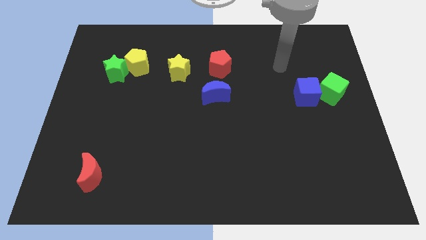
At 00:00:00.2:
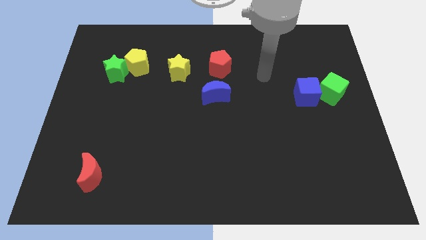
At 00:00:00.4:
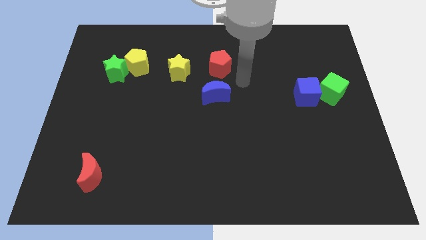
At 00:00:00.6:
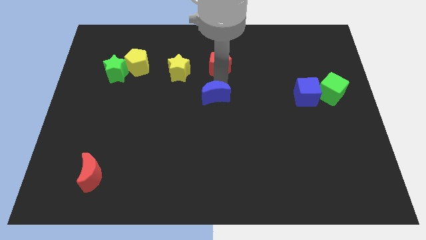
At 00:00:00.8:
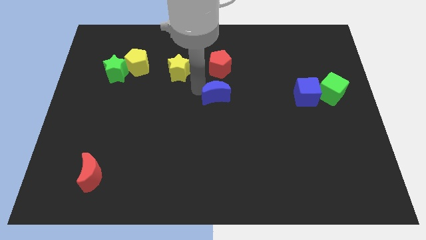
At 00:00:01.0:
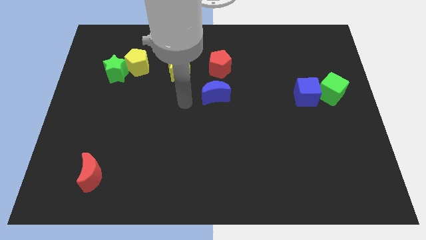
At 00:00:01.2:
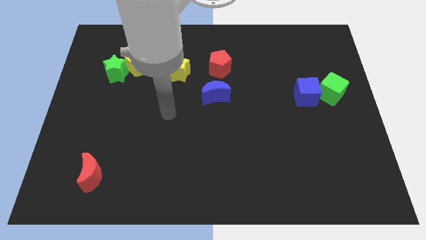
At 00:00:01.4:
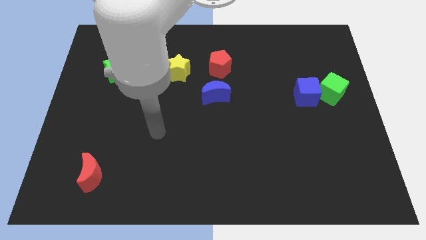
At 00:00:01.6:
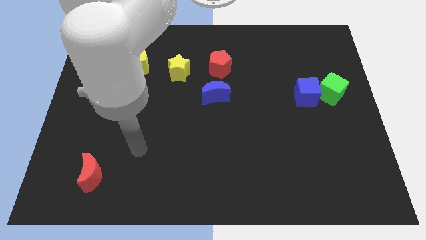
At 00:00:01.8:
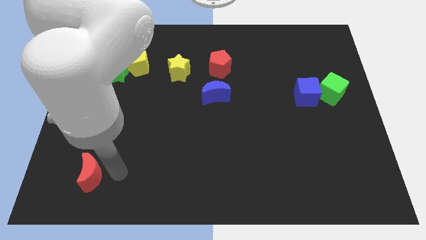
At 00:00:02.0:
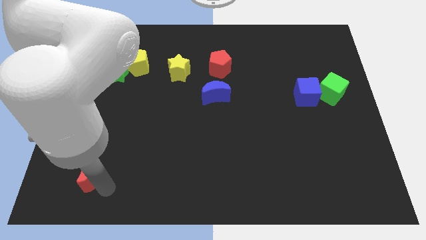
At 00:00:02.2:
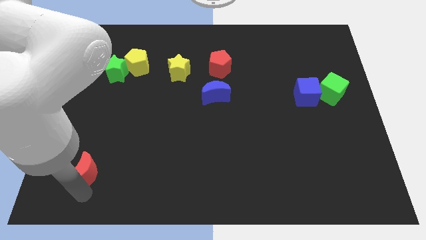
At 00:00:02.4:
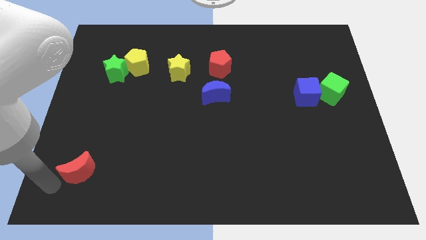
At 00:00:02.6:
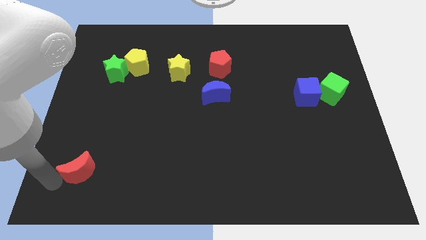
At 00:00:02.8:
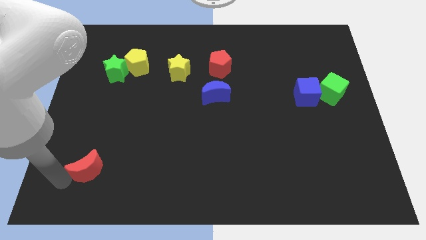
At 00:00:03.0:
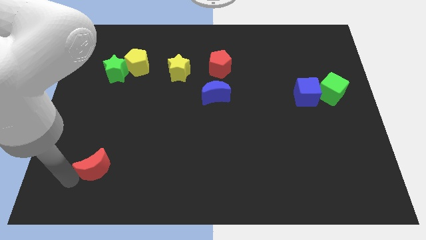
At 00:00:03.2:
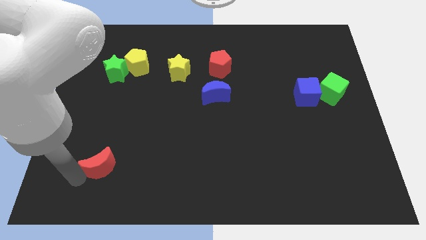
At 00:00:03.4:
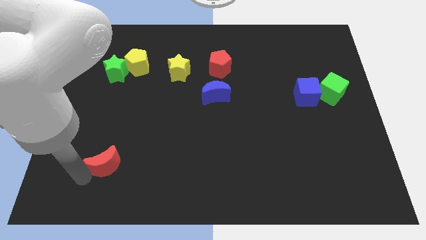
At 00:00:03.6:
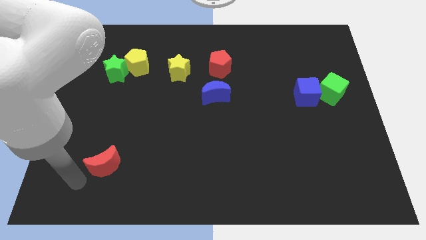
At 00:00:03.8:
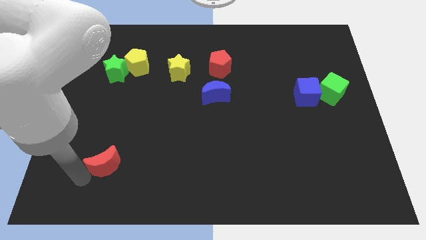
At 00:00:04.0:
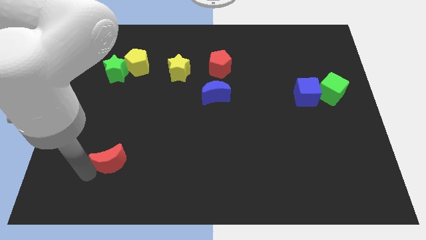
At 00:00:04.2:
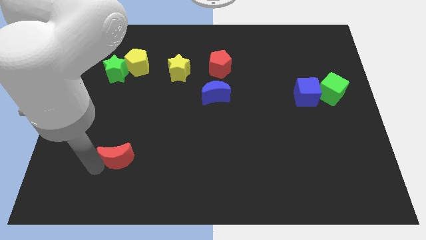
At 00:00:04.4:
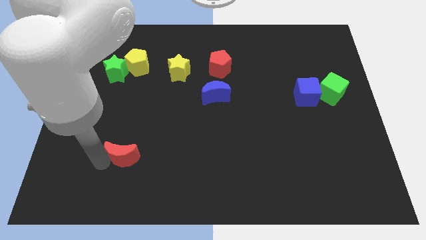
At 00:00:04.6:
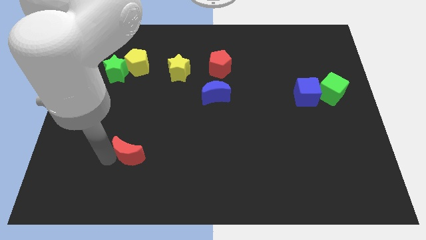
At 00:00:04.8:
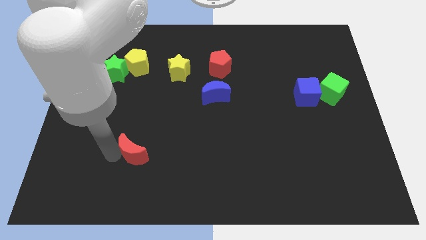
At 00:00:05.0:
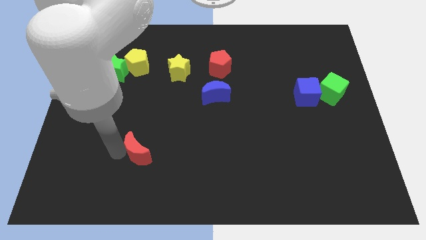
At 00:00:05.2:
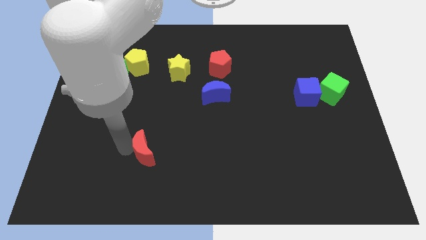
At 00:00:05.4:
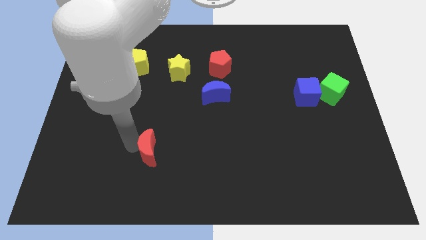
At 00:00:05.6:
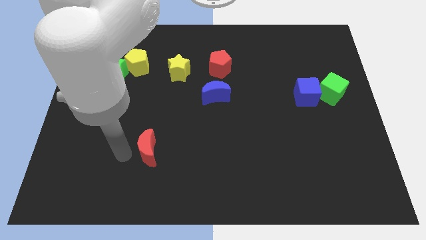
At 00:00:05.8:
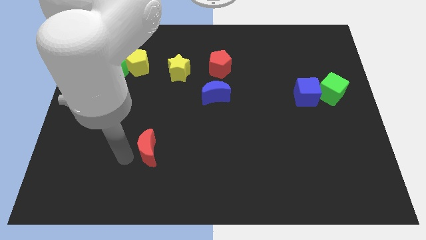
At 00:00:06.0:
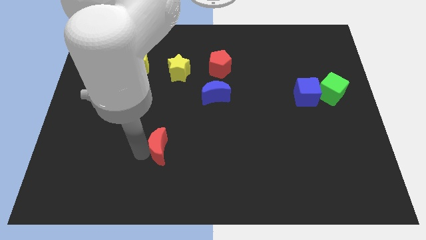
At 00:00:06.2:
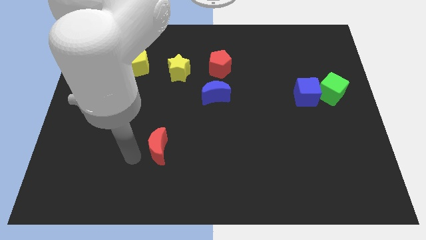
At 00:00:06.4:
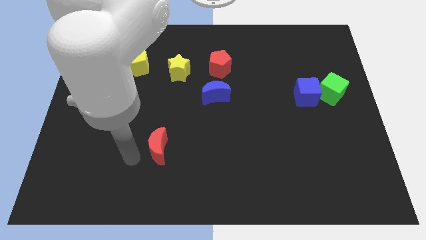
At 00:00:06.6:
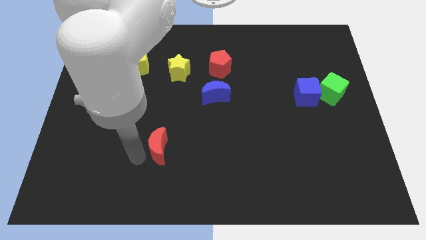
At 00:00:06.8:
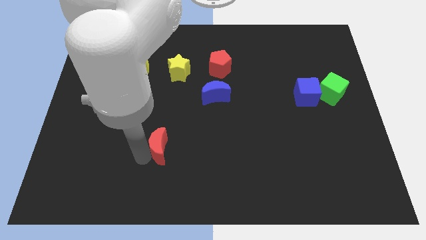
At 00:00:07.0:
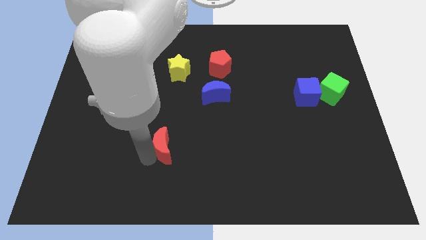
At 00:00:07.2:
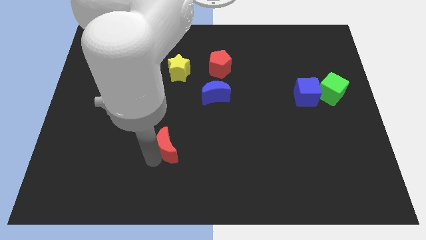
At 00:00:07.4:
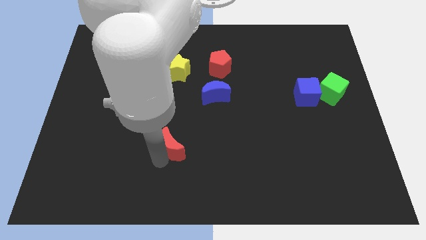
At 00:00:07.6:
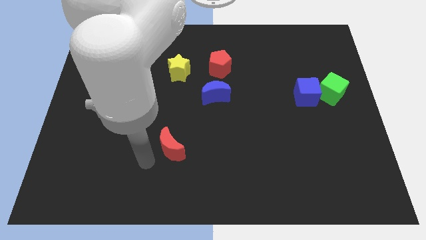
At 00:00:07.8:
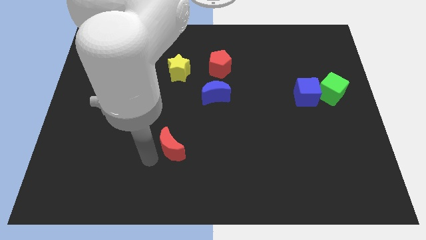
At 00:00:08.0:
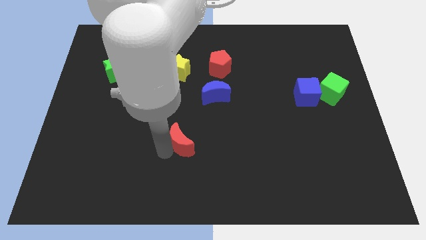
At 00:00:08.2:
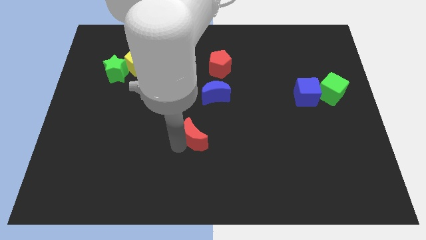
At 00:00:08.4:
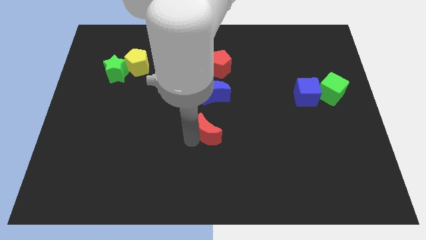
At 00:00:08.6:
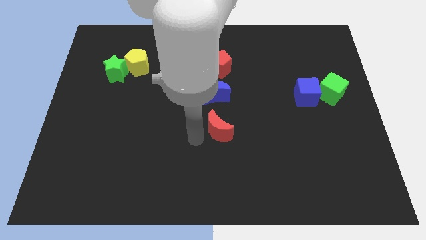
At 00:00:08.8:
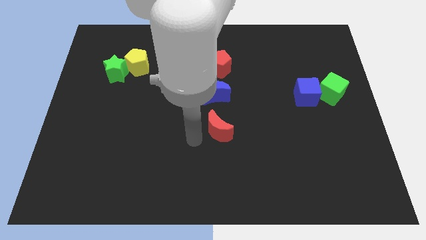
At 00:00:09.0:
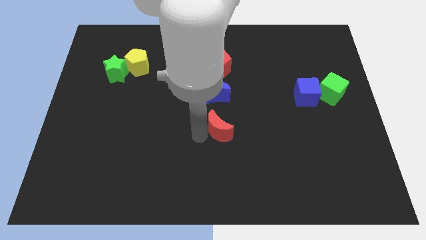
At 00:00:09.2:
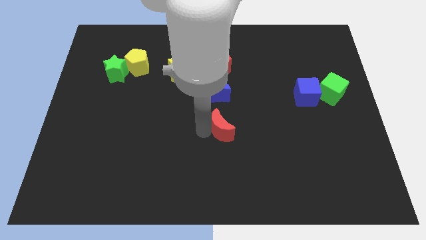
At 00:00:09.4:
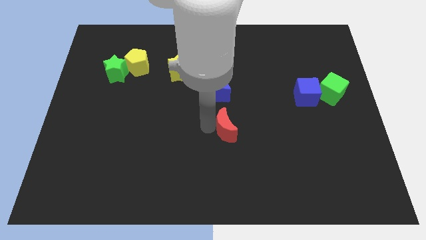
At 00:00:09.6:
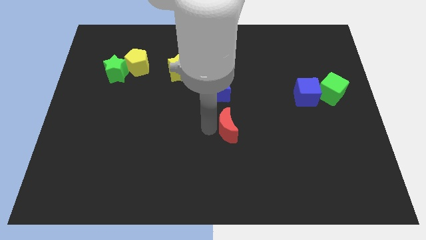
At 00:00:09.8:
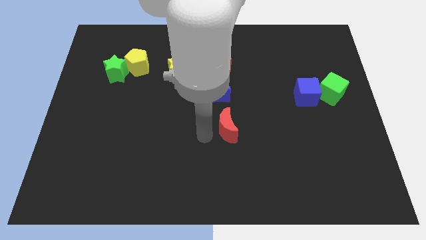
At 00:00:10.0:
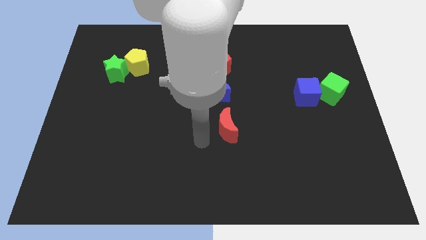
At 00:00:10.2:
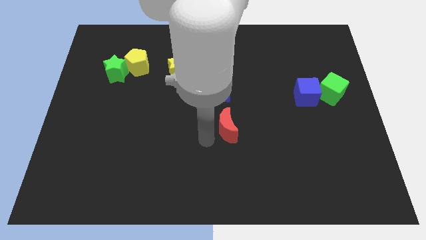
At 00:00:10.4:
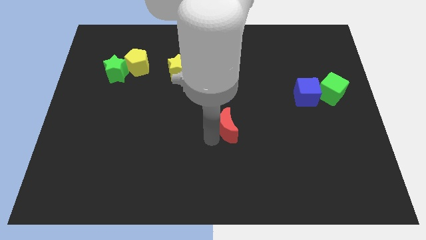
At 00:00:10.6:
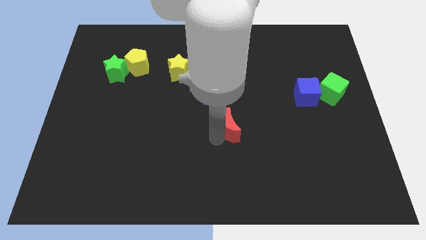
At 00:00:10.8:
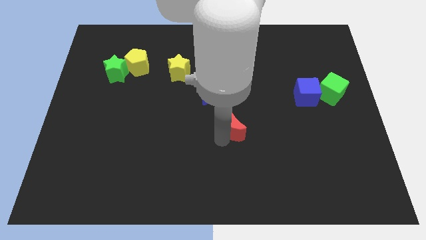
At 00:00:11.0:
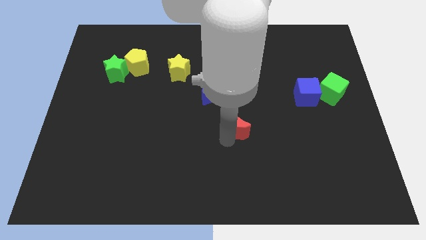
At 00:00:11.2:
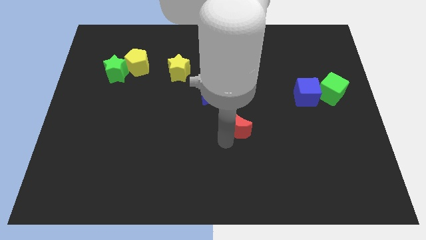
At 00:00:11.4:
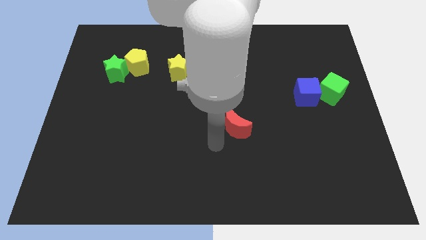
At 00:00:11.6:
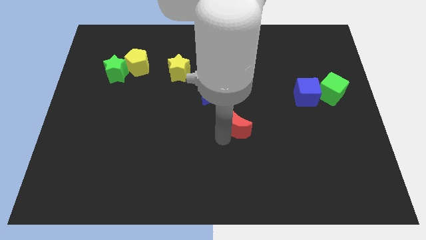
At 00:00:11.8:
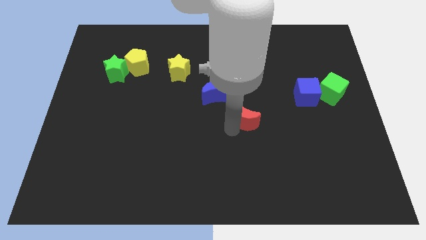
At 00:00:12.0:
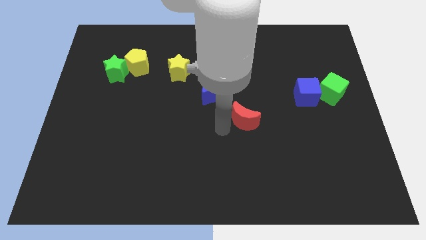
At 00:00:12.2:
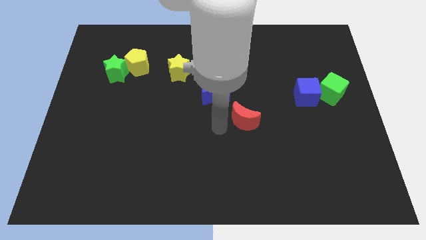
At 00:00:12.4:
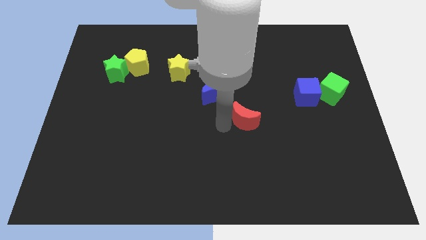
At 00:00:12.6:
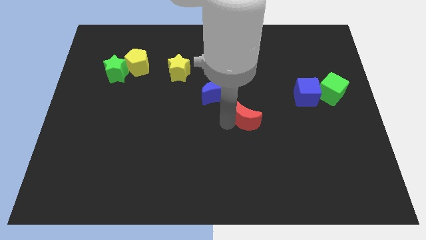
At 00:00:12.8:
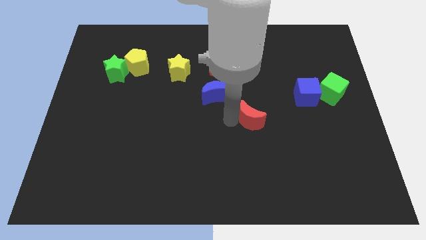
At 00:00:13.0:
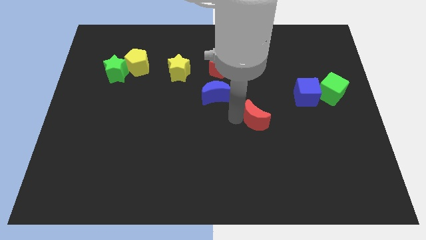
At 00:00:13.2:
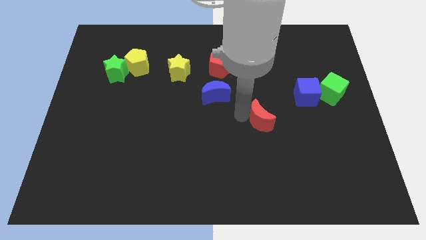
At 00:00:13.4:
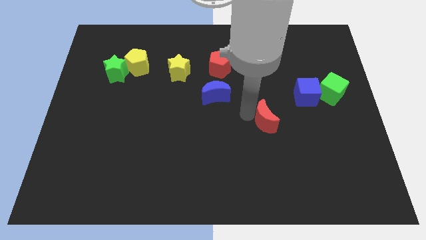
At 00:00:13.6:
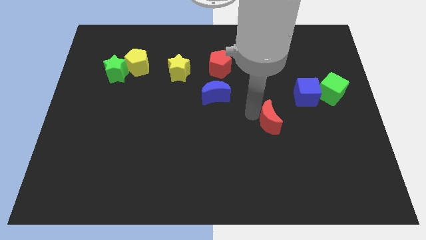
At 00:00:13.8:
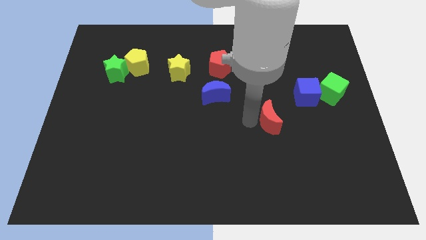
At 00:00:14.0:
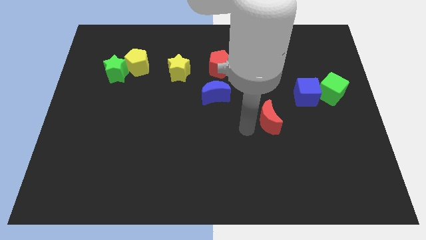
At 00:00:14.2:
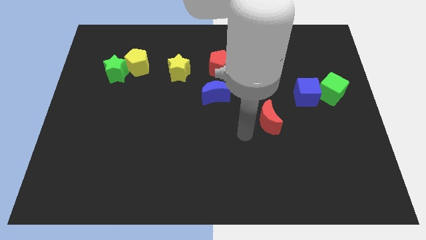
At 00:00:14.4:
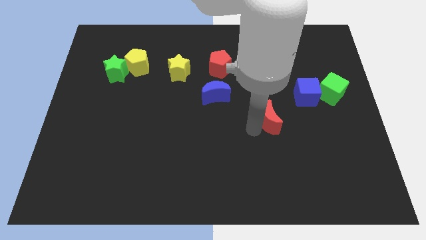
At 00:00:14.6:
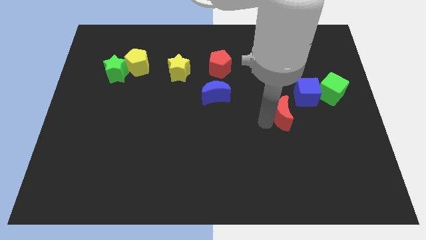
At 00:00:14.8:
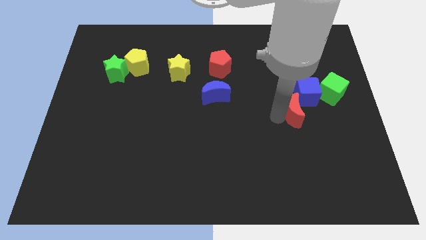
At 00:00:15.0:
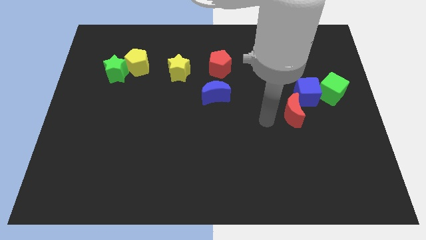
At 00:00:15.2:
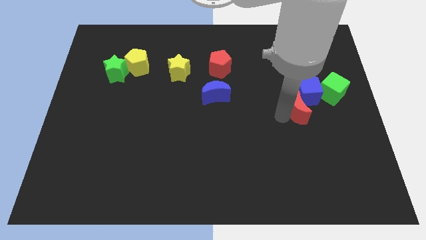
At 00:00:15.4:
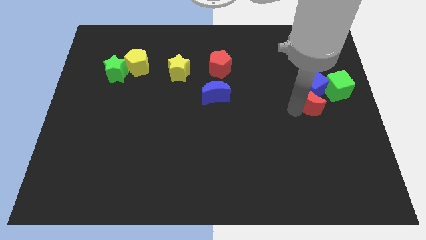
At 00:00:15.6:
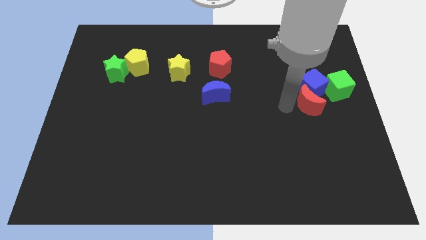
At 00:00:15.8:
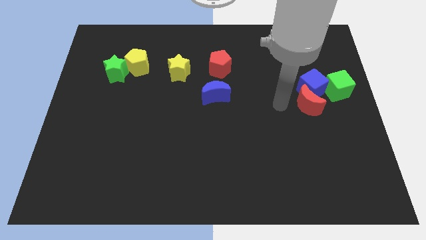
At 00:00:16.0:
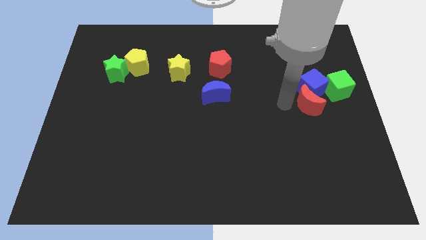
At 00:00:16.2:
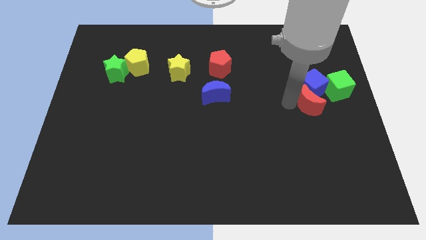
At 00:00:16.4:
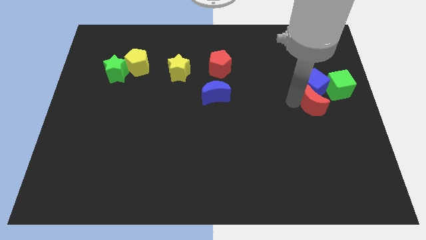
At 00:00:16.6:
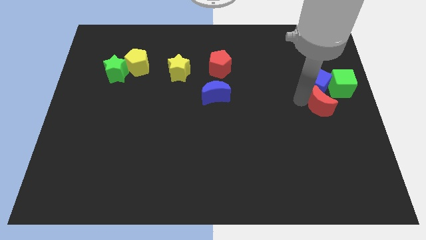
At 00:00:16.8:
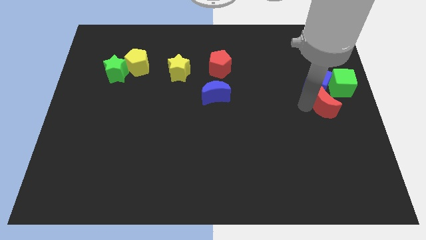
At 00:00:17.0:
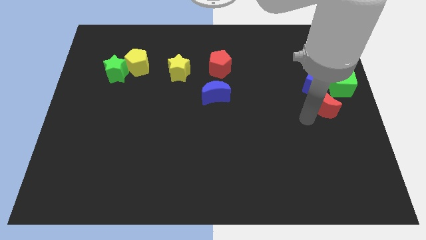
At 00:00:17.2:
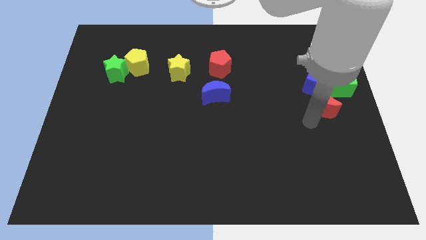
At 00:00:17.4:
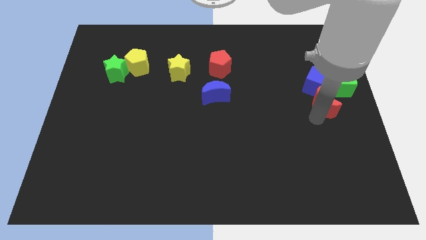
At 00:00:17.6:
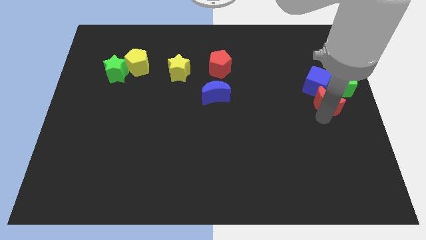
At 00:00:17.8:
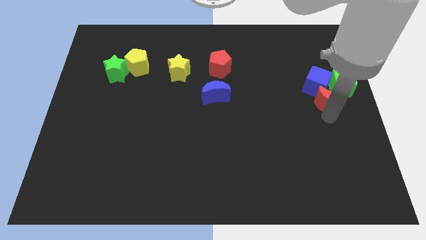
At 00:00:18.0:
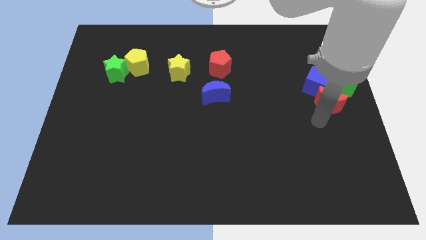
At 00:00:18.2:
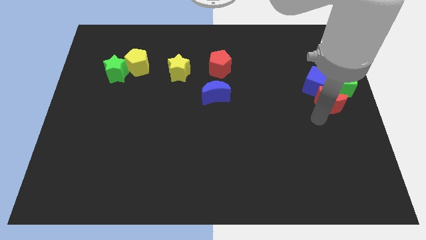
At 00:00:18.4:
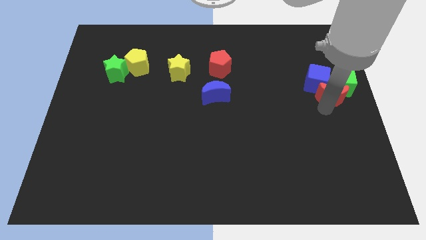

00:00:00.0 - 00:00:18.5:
slide the red moon to the green cube
